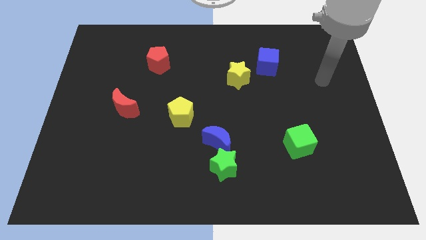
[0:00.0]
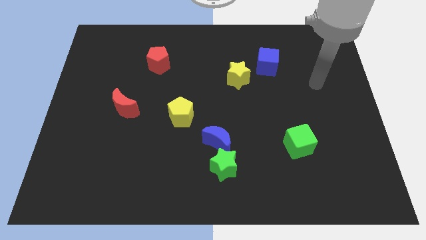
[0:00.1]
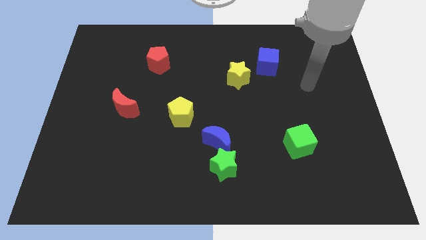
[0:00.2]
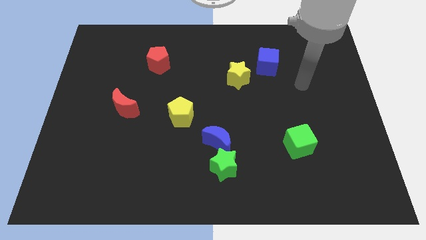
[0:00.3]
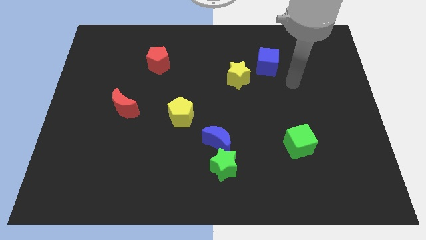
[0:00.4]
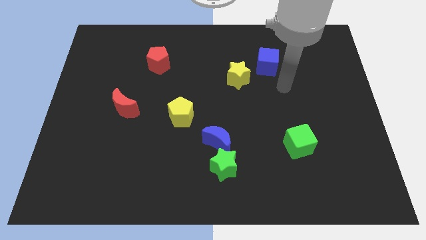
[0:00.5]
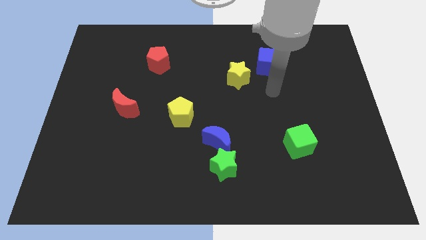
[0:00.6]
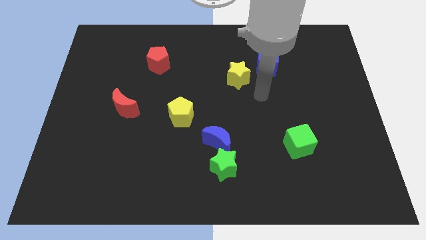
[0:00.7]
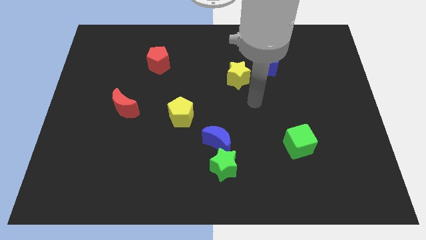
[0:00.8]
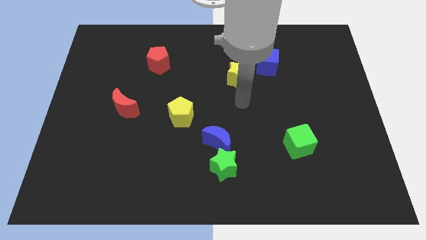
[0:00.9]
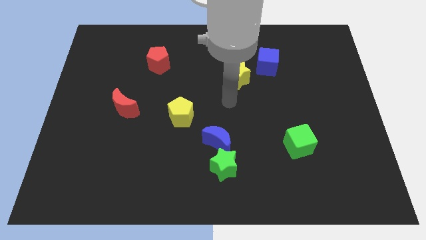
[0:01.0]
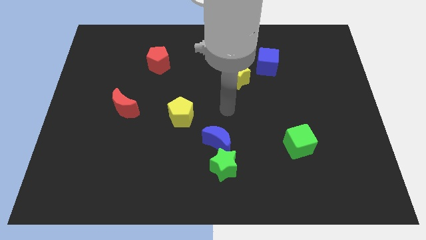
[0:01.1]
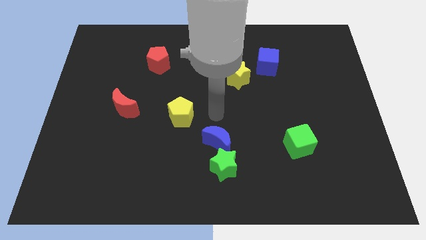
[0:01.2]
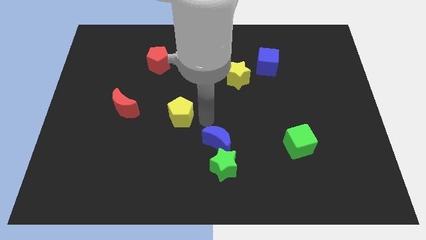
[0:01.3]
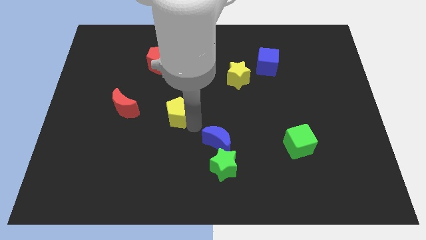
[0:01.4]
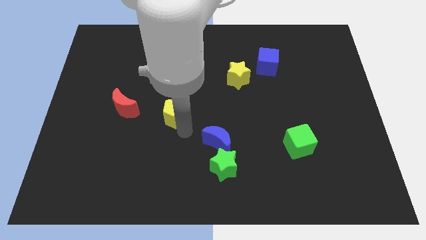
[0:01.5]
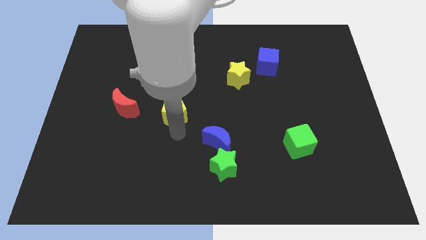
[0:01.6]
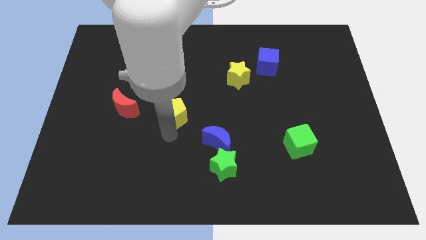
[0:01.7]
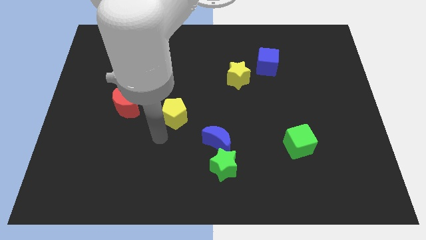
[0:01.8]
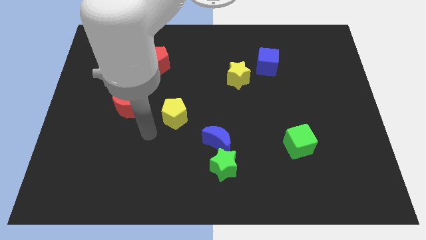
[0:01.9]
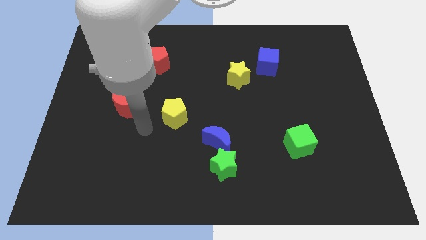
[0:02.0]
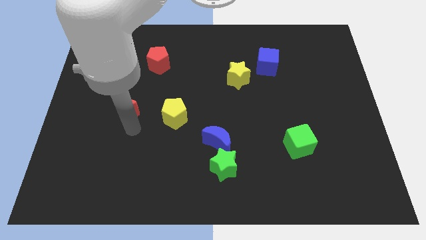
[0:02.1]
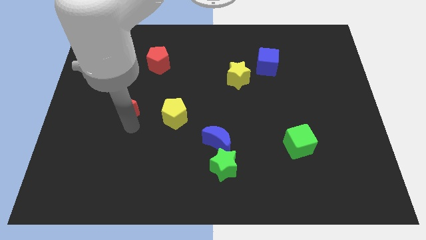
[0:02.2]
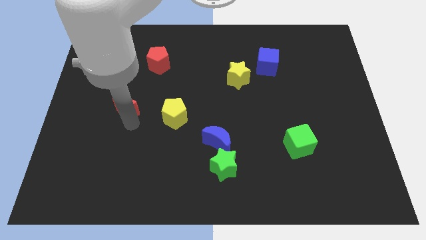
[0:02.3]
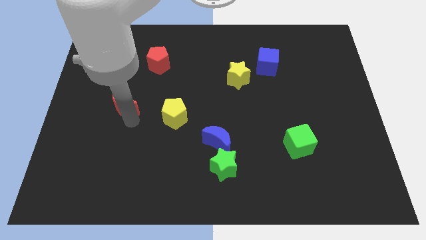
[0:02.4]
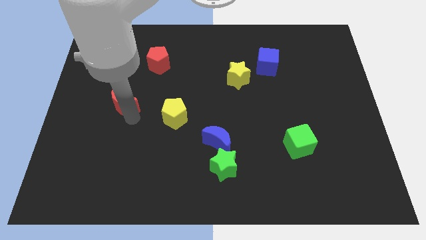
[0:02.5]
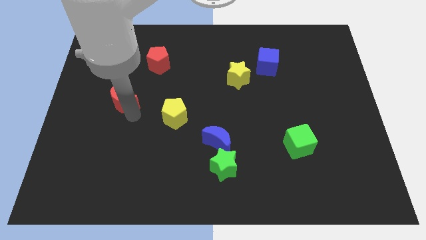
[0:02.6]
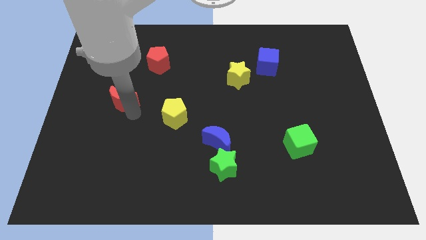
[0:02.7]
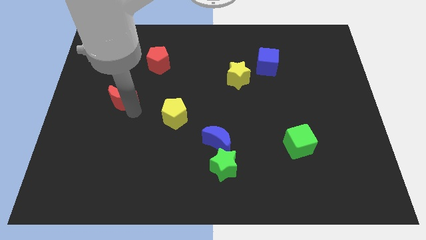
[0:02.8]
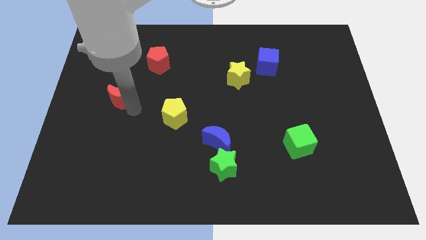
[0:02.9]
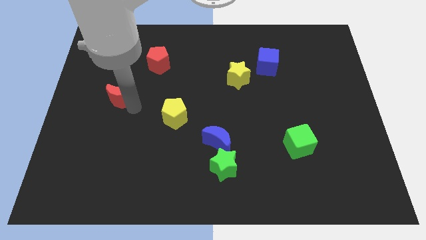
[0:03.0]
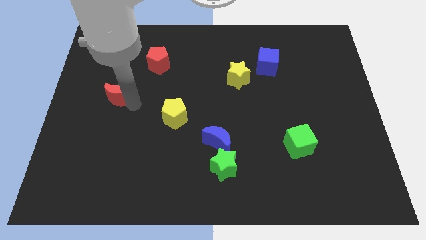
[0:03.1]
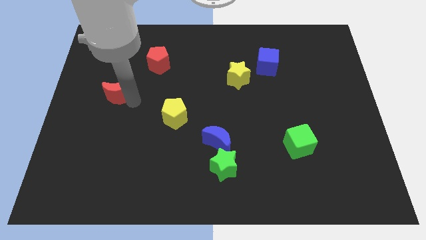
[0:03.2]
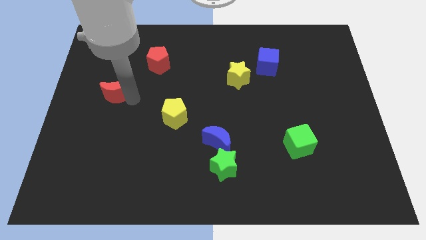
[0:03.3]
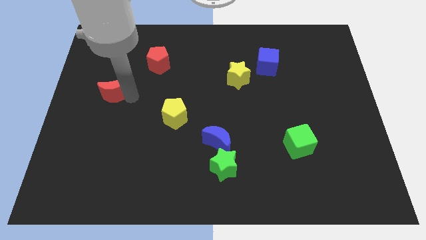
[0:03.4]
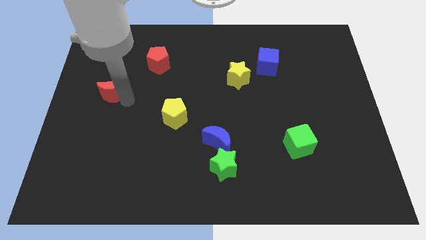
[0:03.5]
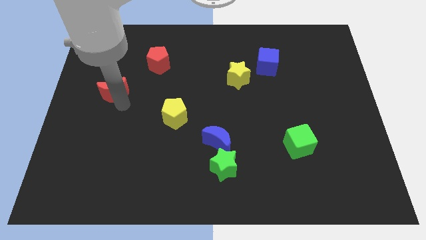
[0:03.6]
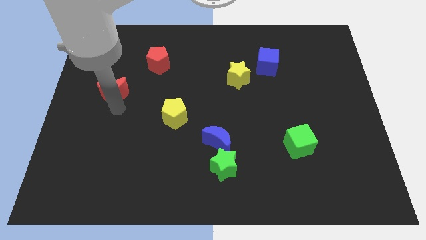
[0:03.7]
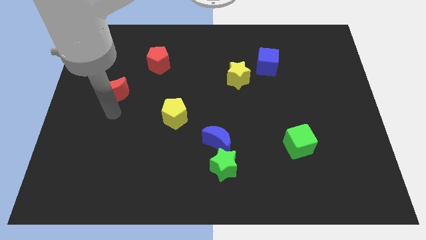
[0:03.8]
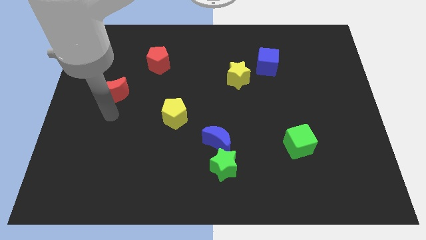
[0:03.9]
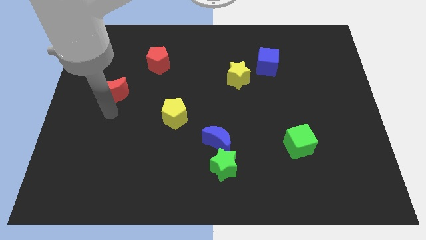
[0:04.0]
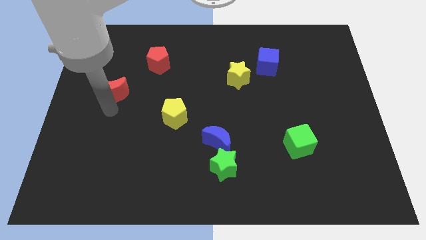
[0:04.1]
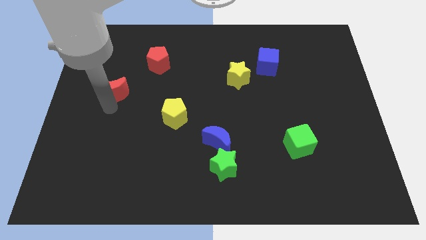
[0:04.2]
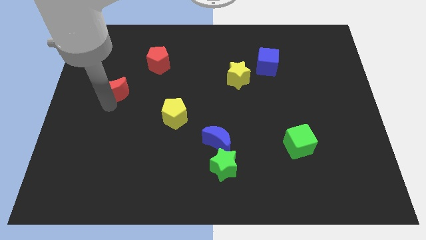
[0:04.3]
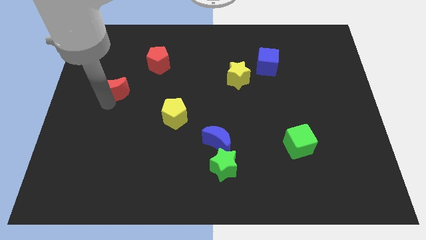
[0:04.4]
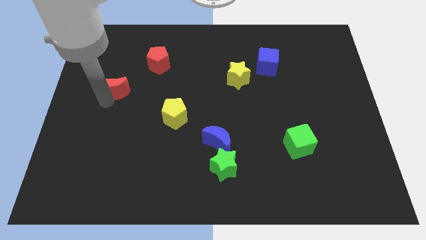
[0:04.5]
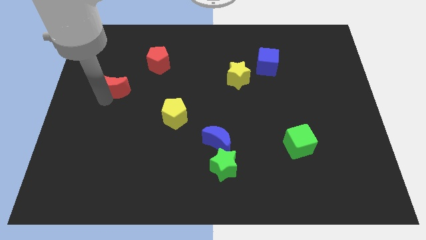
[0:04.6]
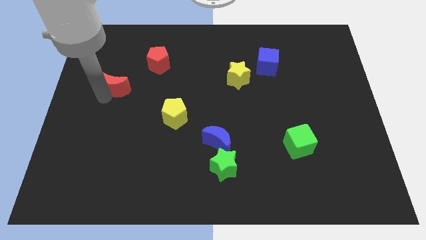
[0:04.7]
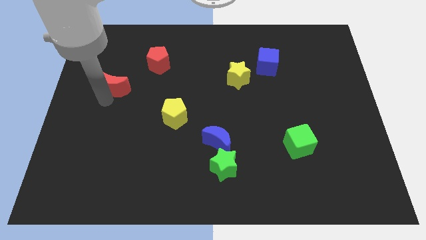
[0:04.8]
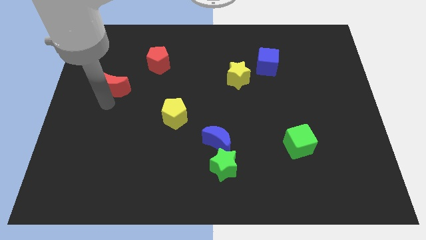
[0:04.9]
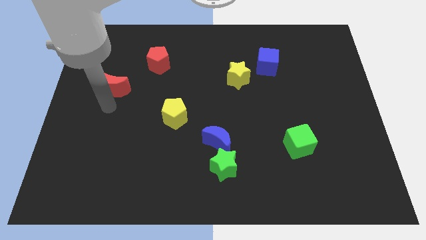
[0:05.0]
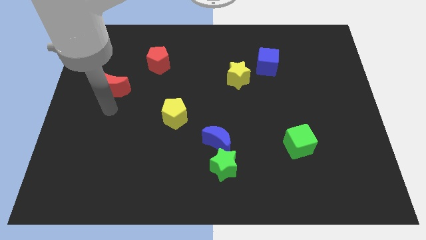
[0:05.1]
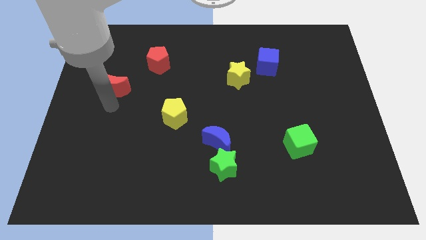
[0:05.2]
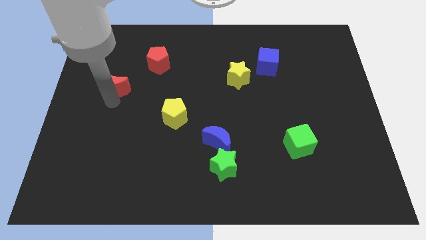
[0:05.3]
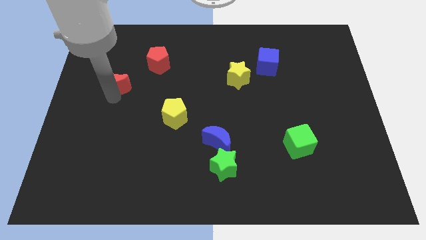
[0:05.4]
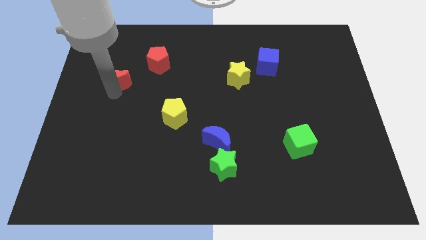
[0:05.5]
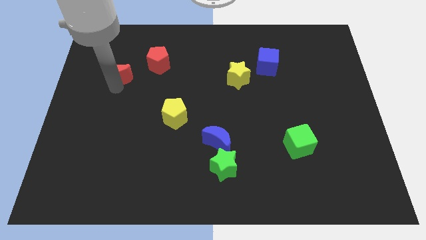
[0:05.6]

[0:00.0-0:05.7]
move the red moon to the left side of the red pentagon
